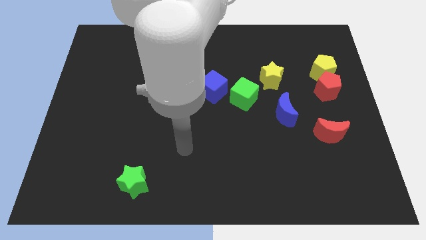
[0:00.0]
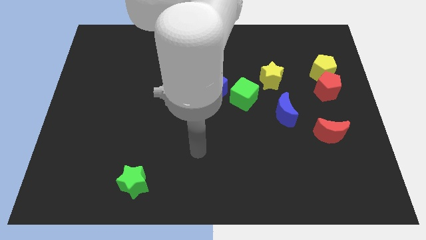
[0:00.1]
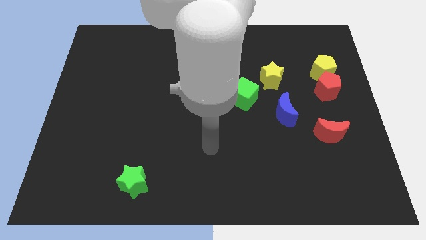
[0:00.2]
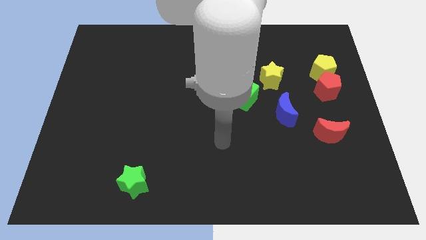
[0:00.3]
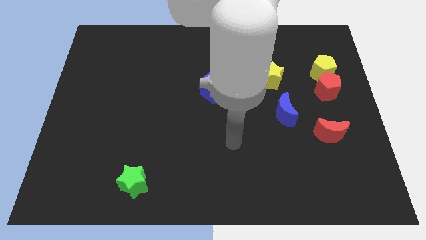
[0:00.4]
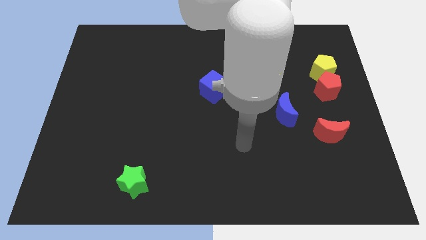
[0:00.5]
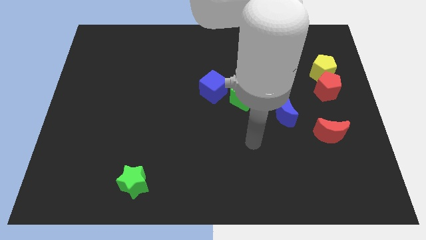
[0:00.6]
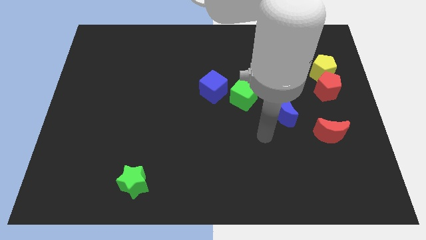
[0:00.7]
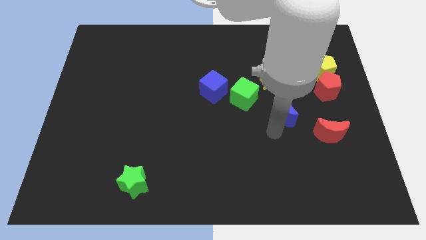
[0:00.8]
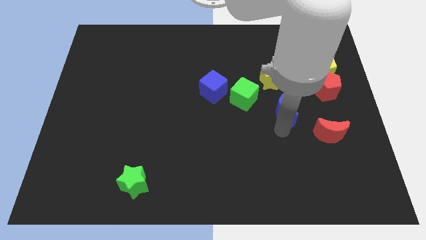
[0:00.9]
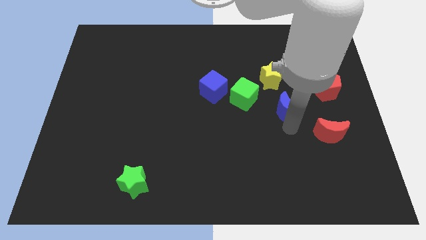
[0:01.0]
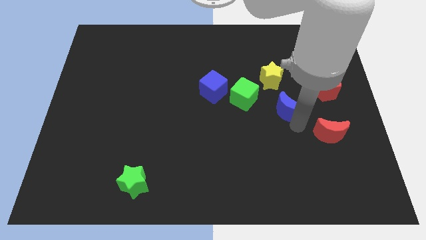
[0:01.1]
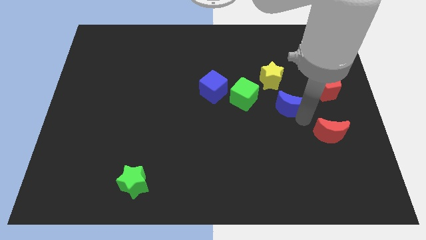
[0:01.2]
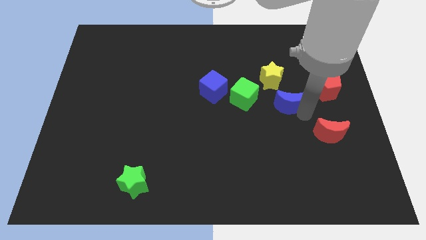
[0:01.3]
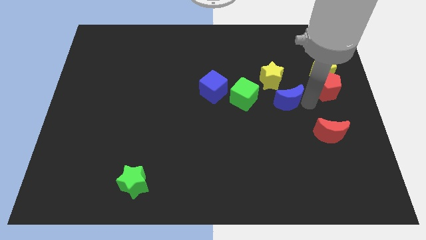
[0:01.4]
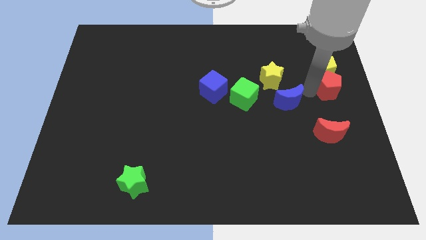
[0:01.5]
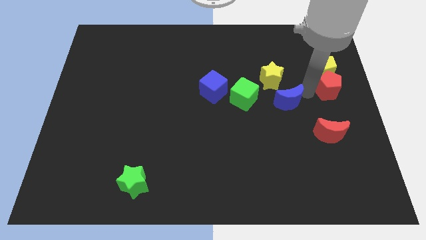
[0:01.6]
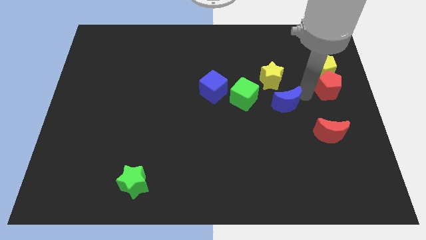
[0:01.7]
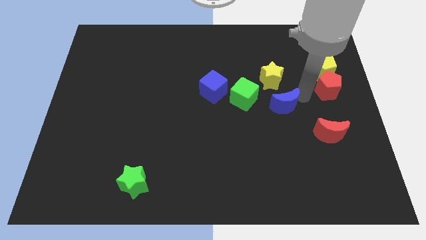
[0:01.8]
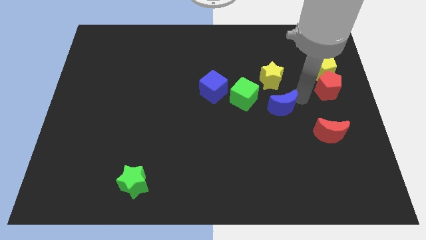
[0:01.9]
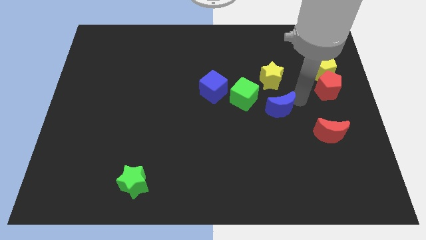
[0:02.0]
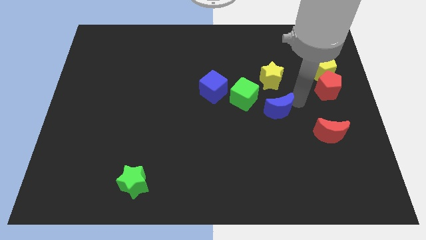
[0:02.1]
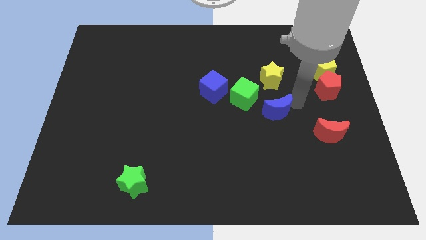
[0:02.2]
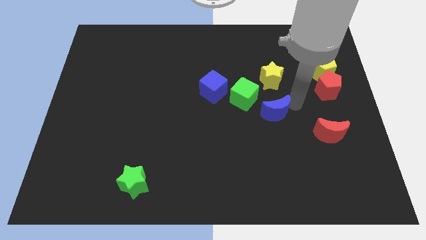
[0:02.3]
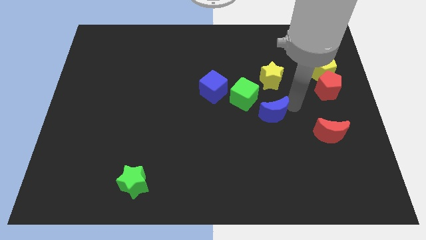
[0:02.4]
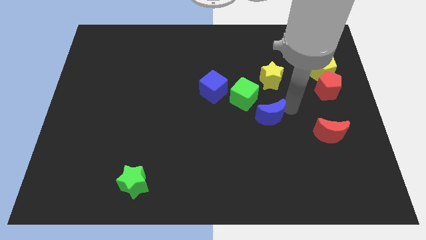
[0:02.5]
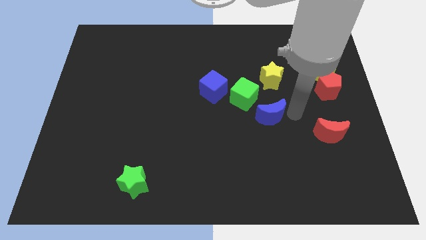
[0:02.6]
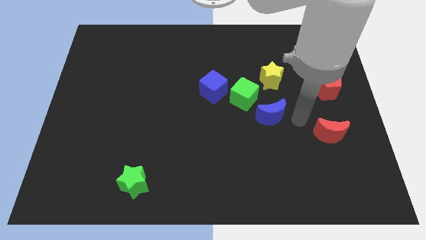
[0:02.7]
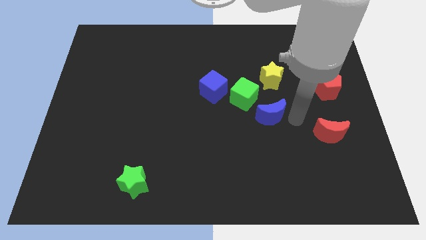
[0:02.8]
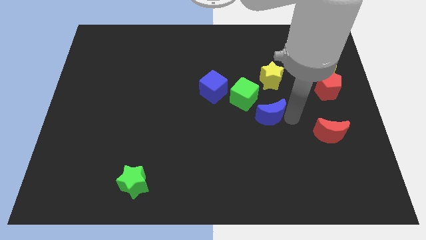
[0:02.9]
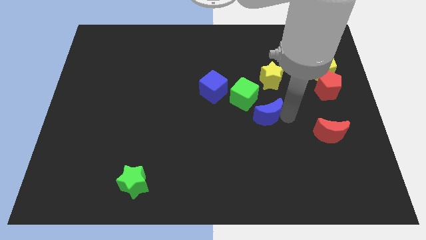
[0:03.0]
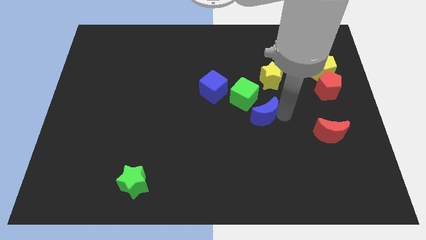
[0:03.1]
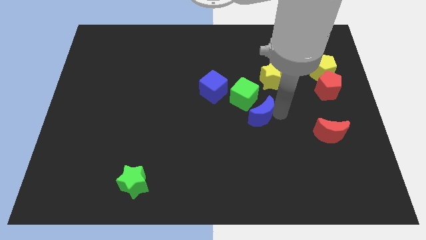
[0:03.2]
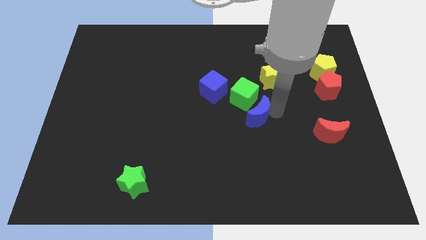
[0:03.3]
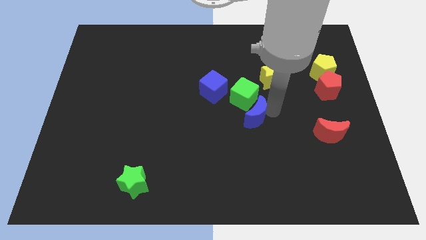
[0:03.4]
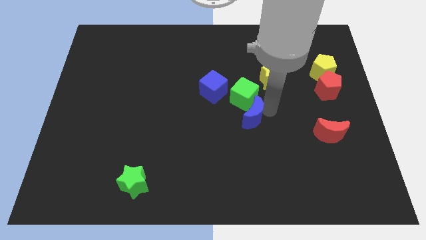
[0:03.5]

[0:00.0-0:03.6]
move the blue moon to the left a bit

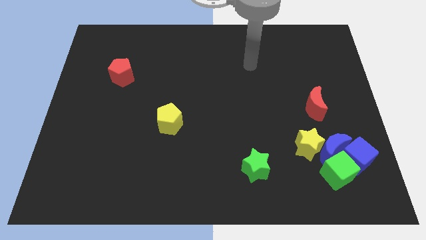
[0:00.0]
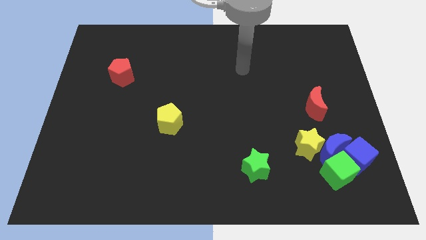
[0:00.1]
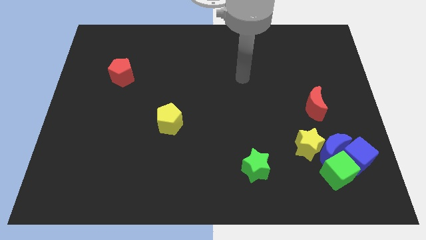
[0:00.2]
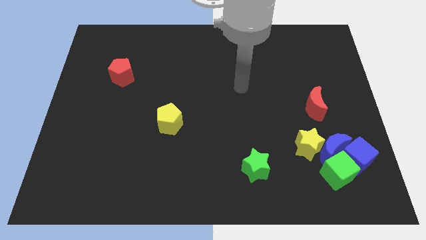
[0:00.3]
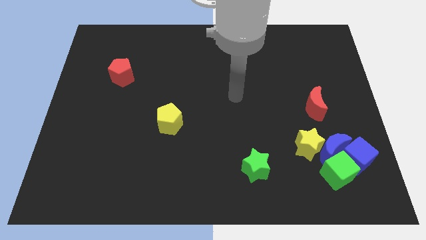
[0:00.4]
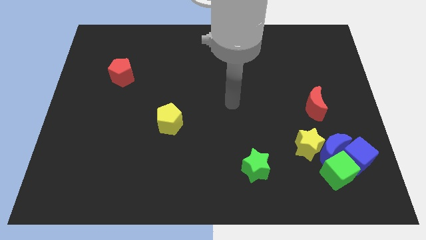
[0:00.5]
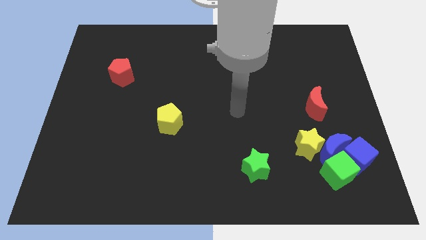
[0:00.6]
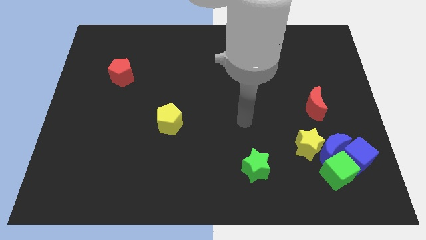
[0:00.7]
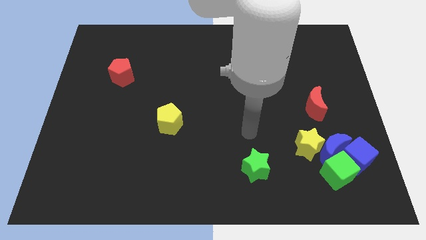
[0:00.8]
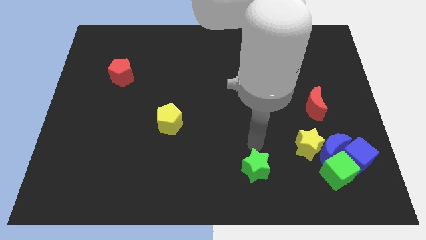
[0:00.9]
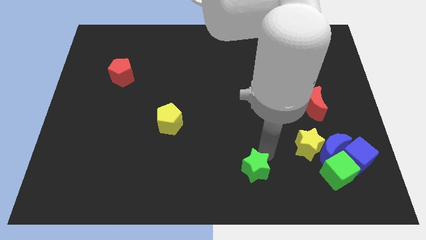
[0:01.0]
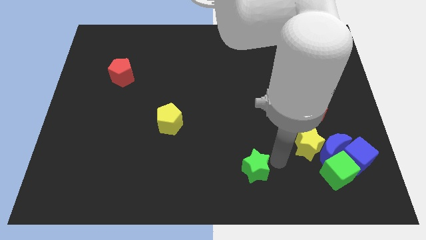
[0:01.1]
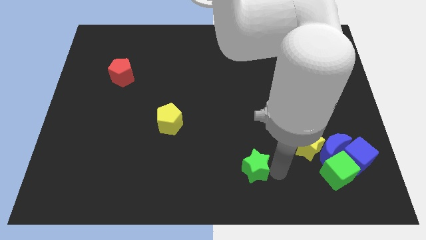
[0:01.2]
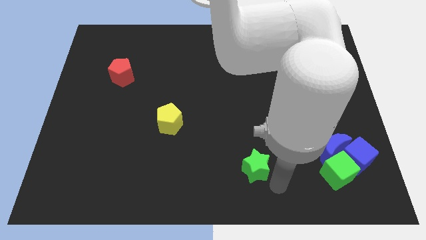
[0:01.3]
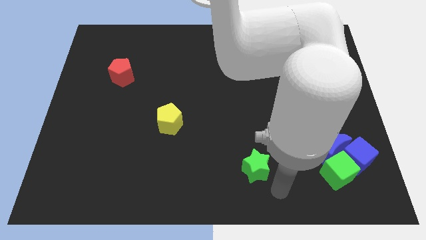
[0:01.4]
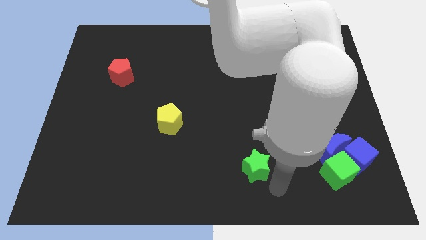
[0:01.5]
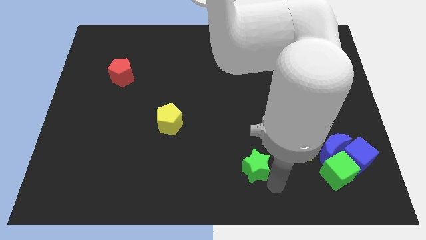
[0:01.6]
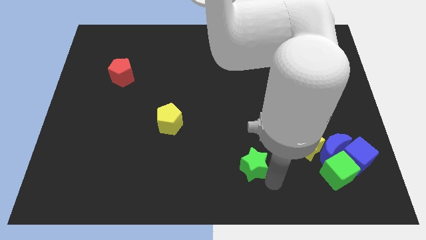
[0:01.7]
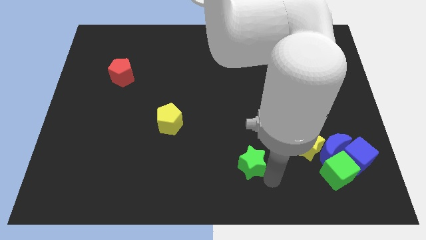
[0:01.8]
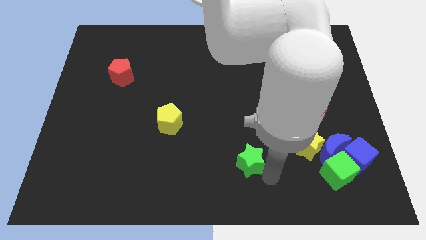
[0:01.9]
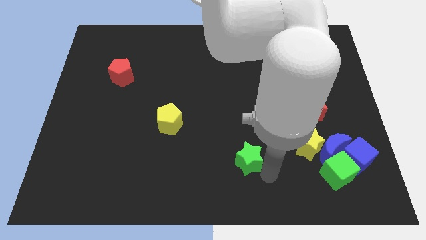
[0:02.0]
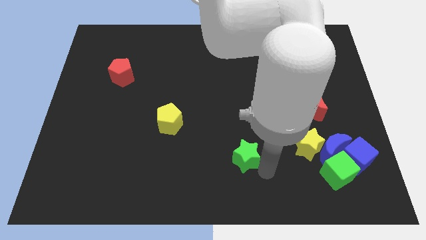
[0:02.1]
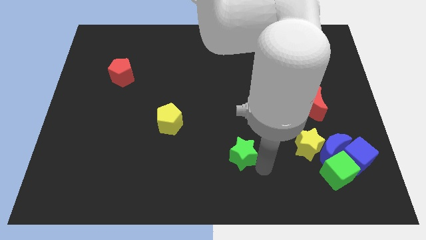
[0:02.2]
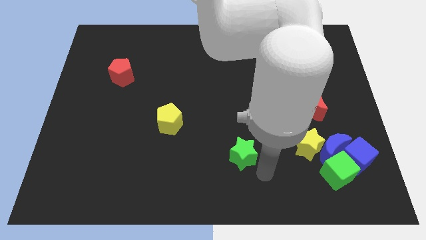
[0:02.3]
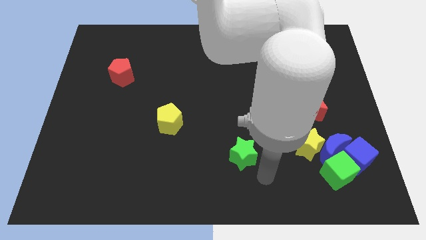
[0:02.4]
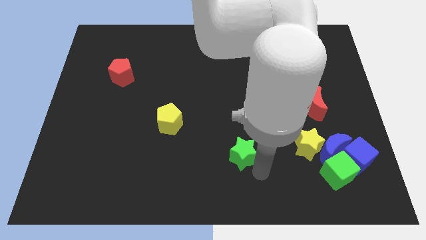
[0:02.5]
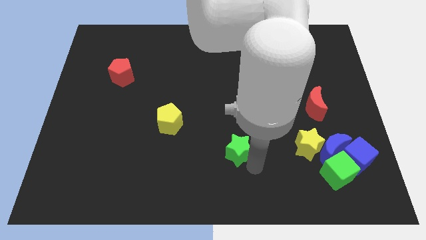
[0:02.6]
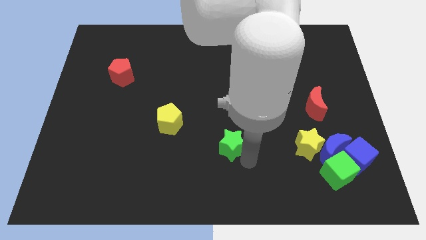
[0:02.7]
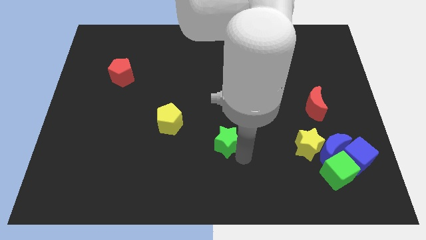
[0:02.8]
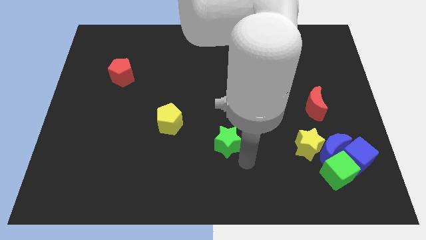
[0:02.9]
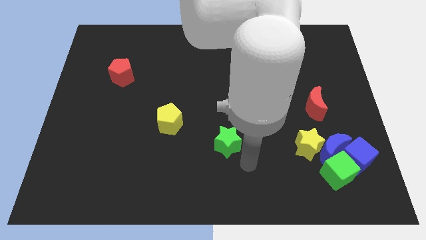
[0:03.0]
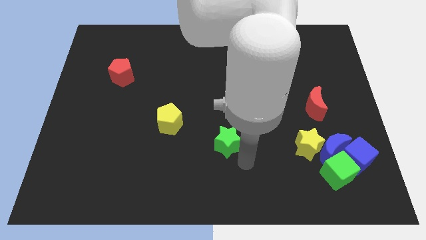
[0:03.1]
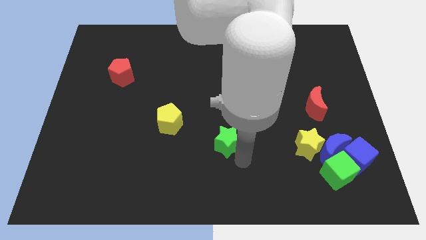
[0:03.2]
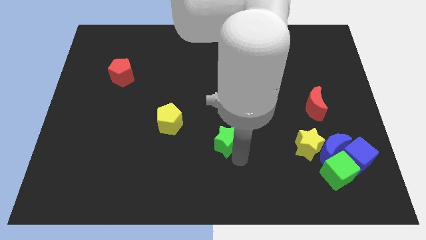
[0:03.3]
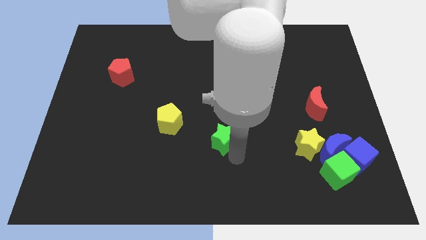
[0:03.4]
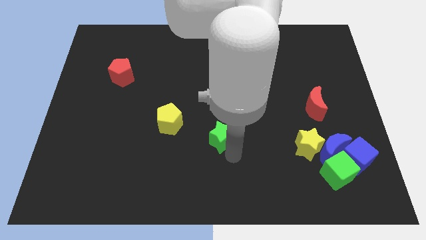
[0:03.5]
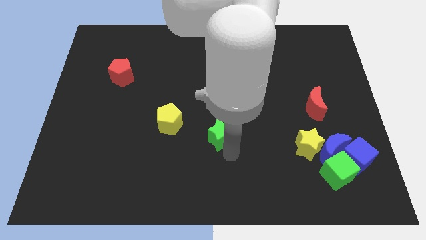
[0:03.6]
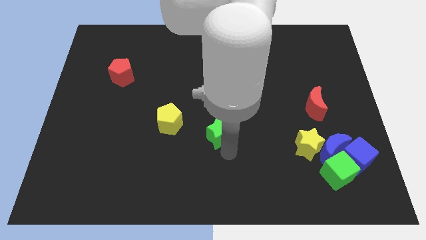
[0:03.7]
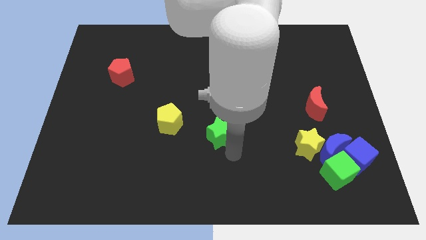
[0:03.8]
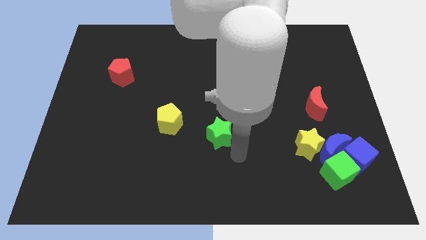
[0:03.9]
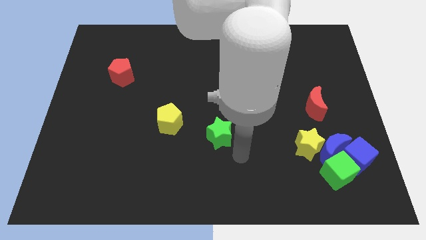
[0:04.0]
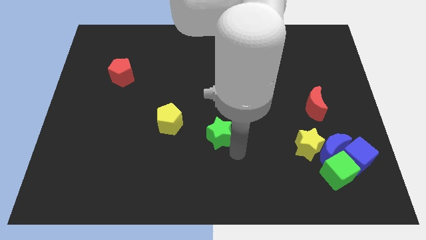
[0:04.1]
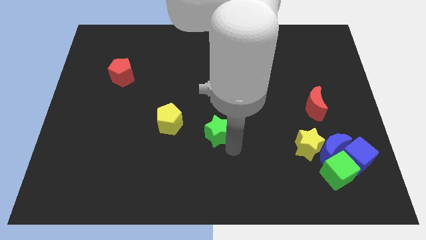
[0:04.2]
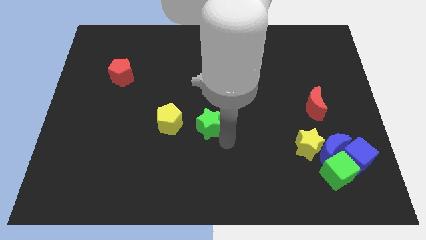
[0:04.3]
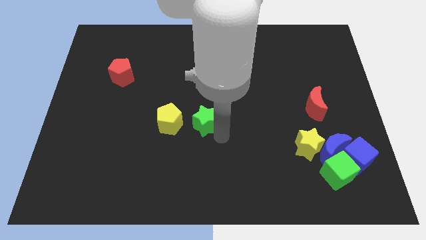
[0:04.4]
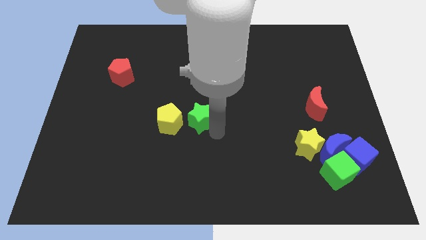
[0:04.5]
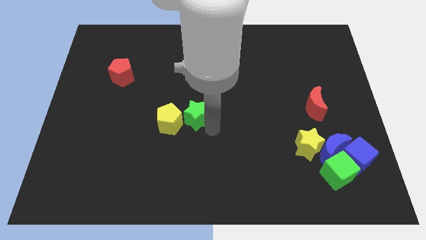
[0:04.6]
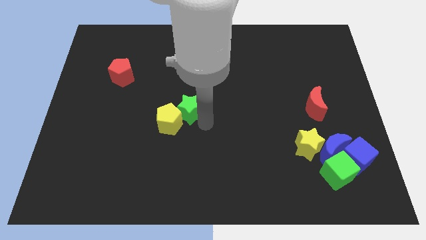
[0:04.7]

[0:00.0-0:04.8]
slide the green star upwards and then to the left

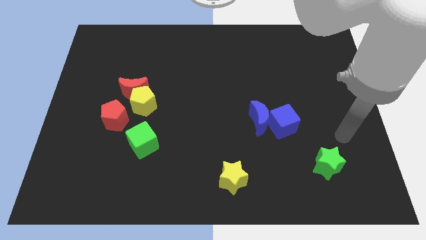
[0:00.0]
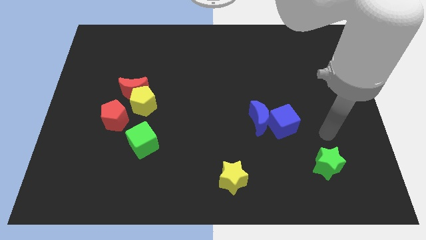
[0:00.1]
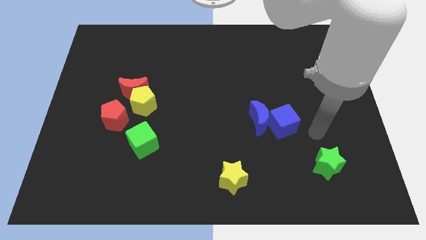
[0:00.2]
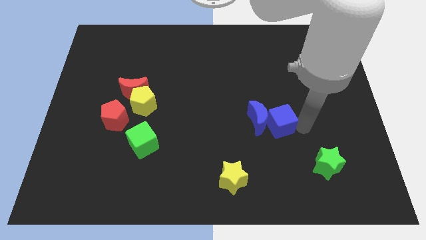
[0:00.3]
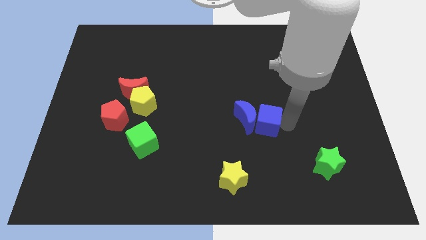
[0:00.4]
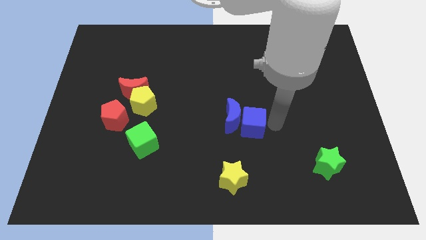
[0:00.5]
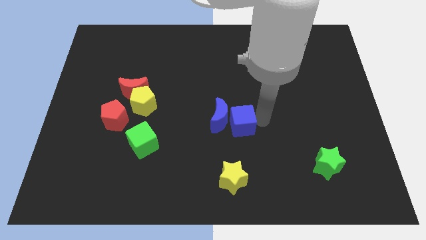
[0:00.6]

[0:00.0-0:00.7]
slightly slide the blue moon left
